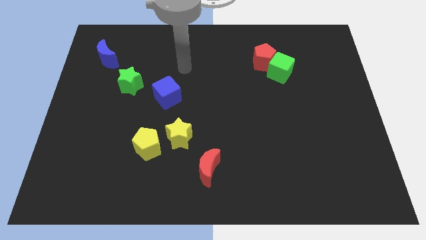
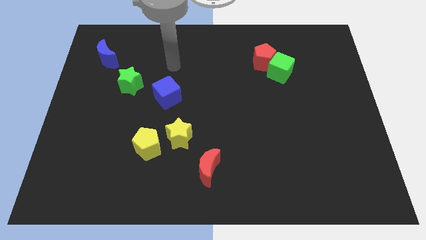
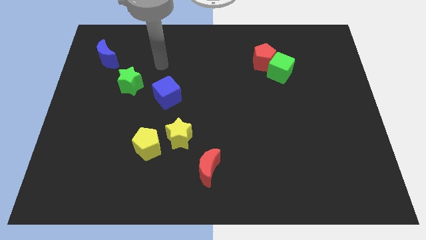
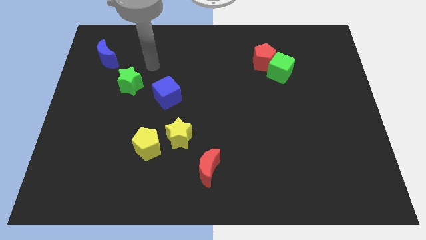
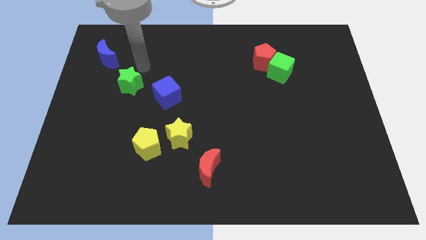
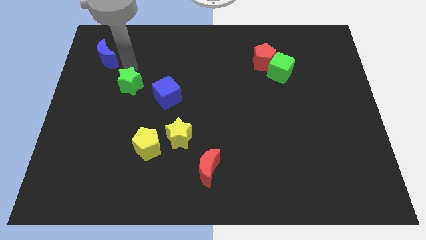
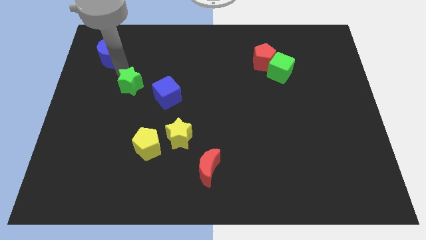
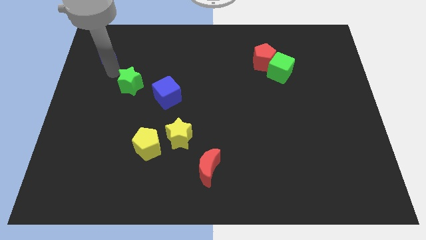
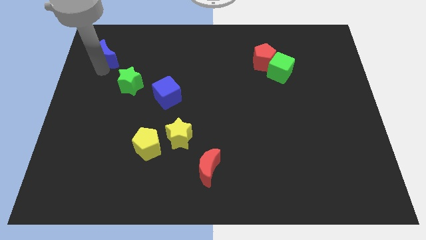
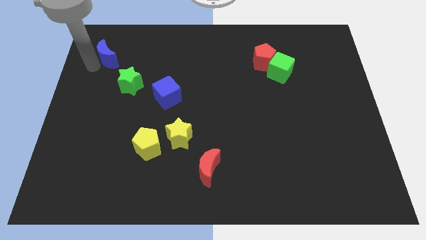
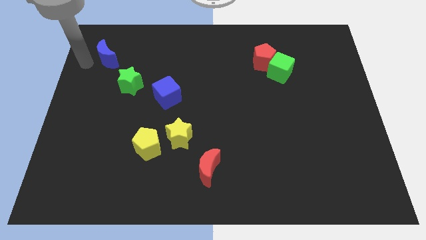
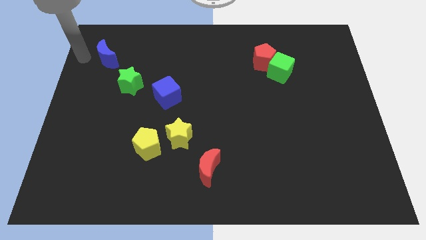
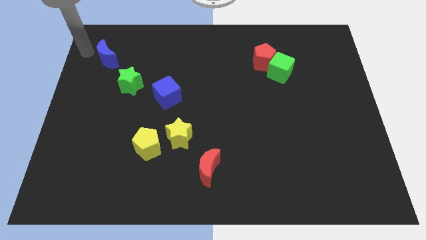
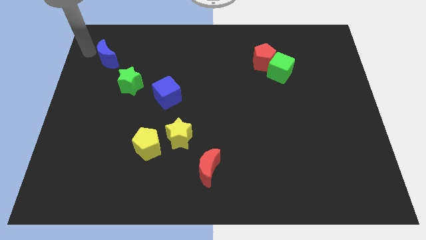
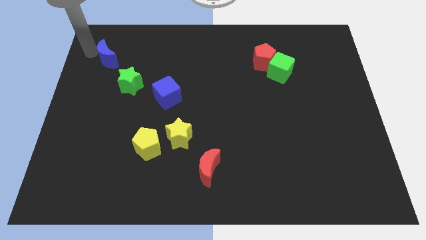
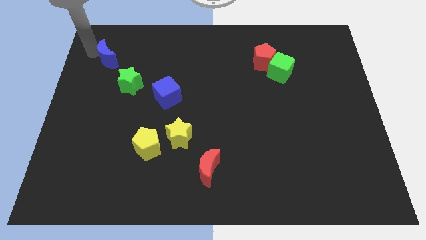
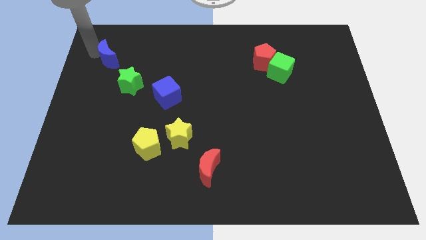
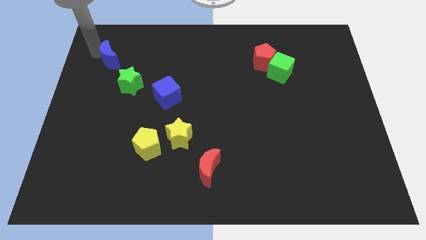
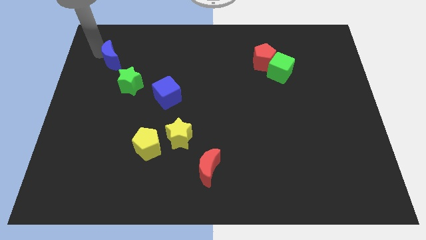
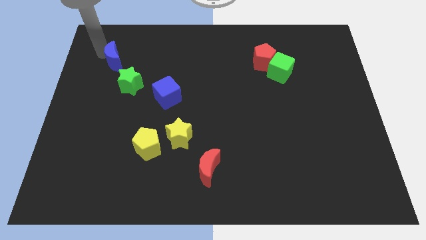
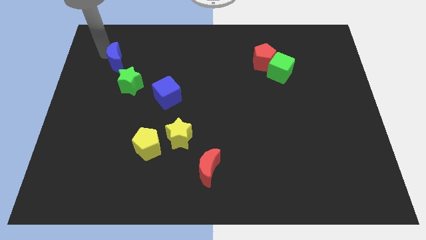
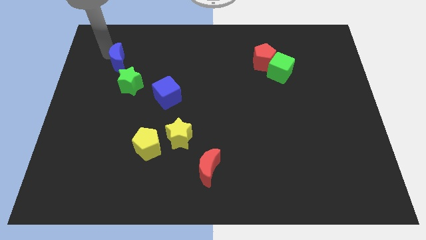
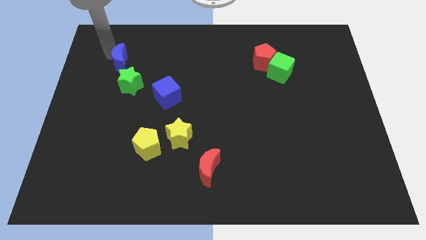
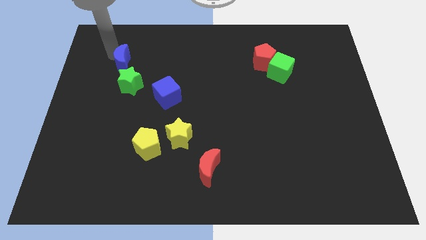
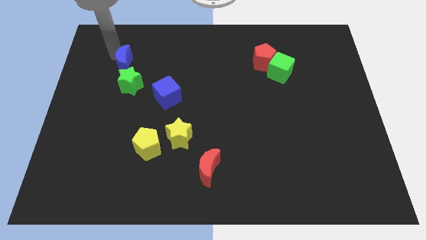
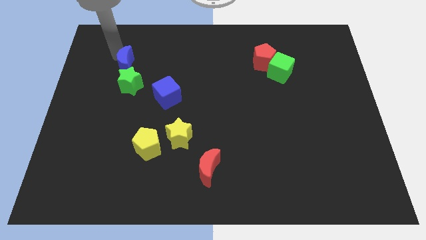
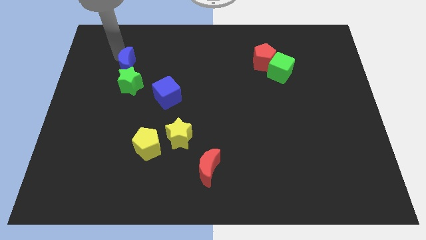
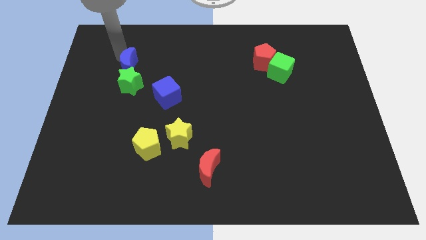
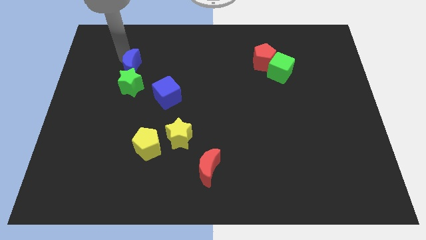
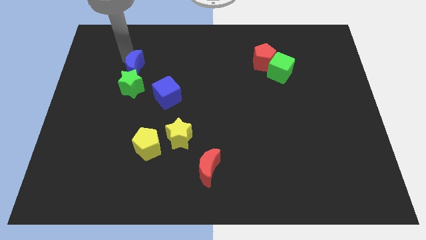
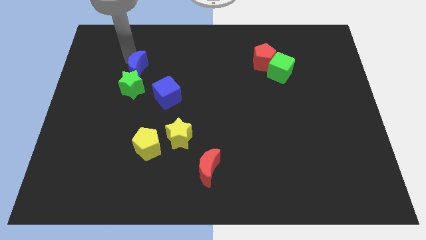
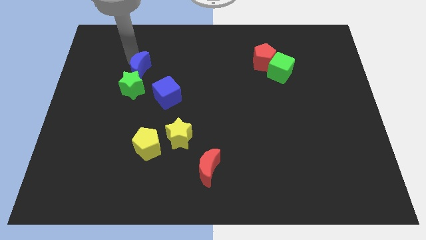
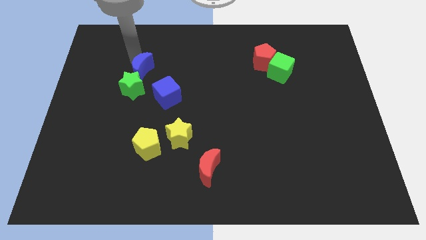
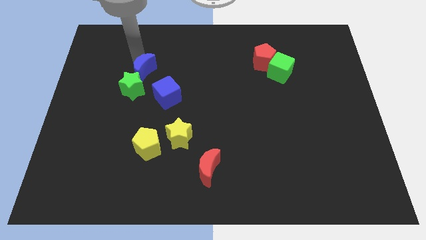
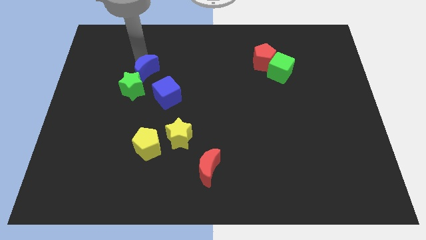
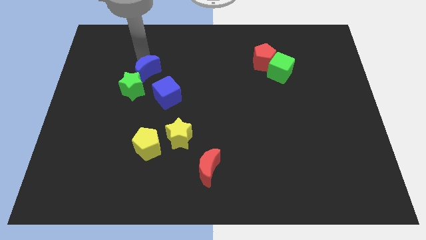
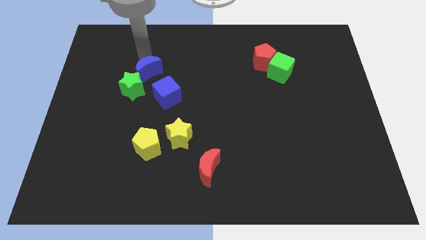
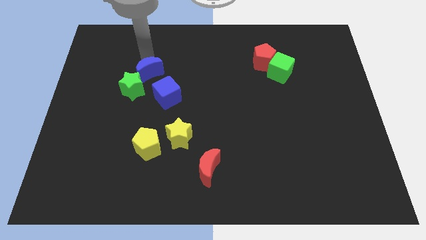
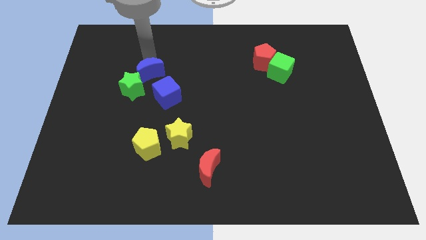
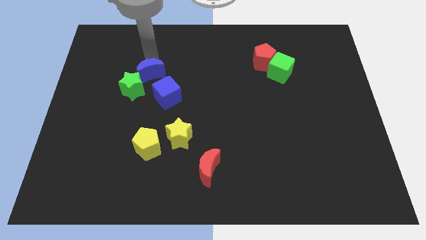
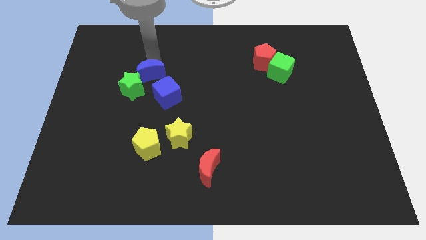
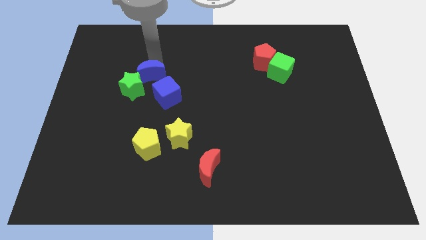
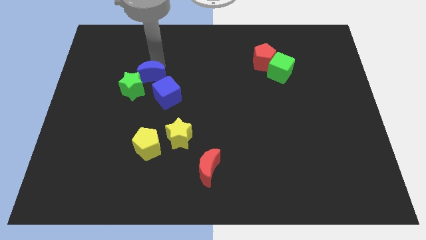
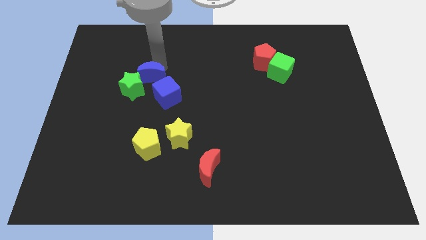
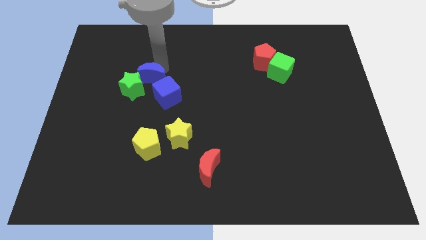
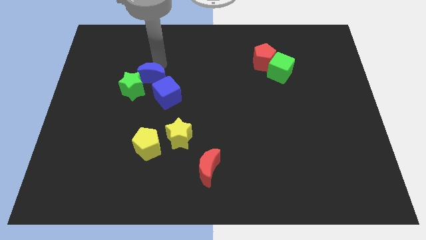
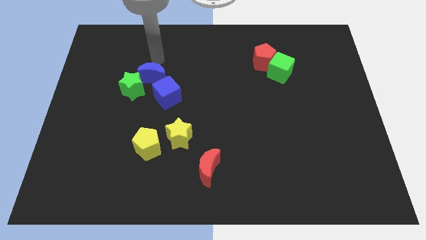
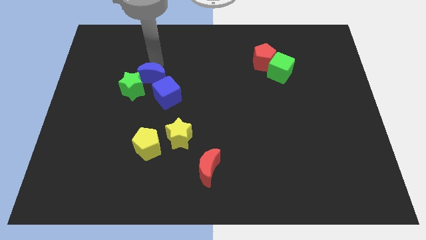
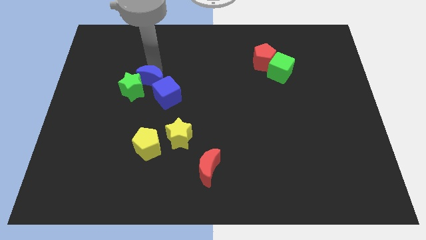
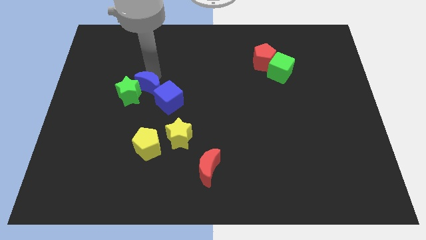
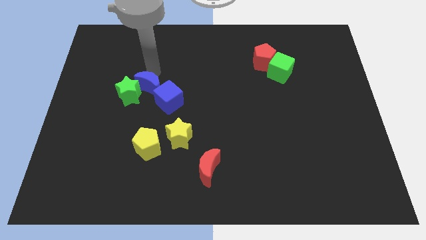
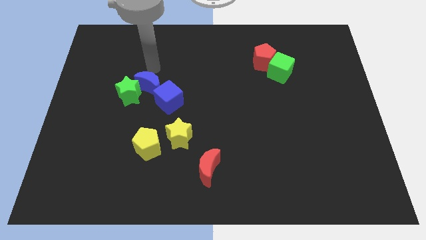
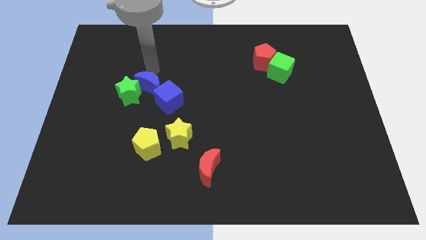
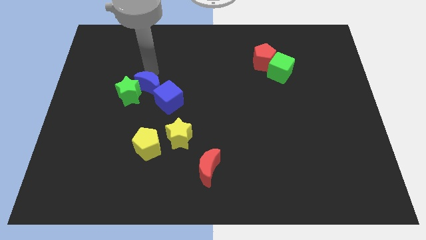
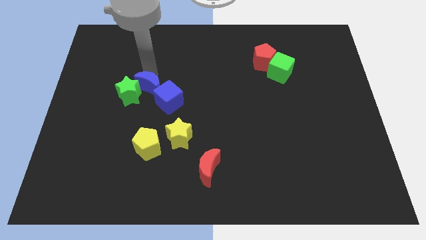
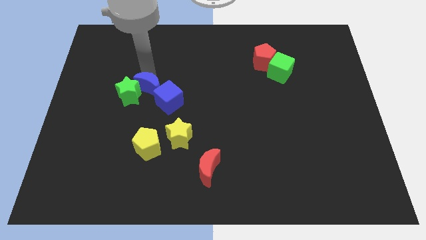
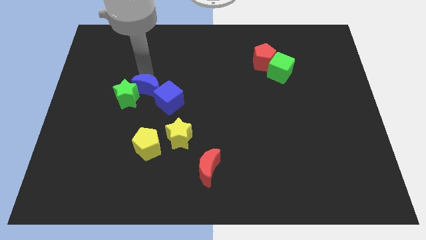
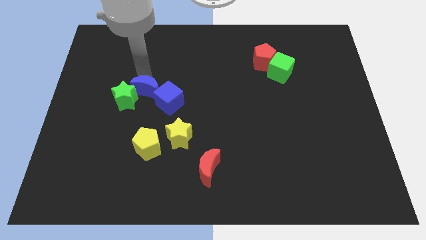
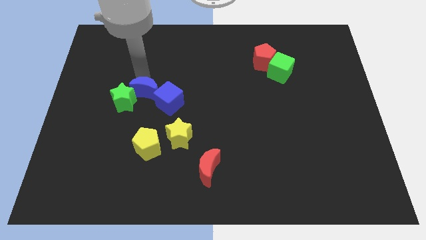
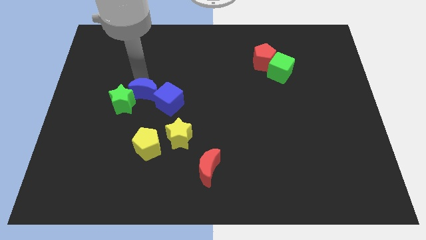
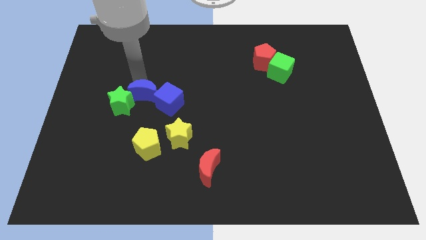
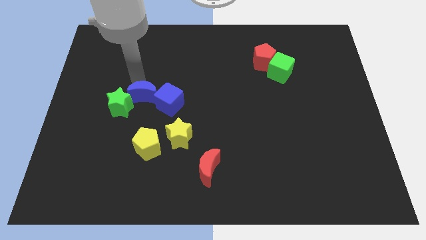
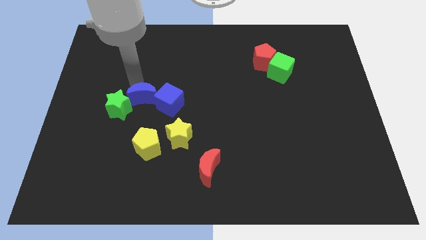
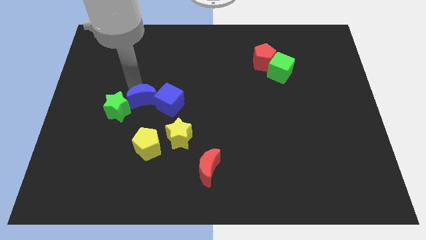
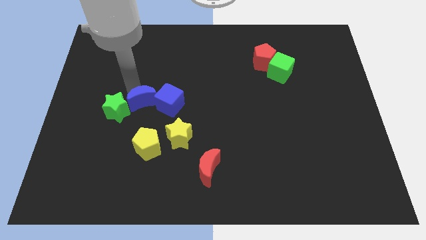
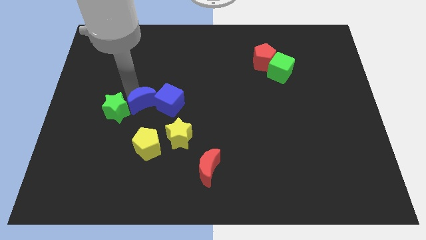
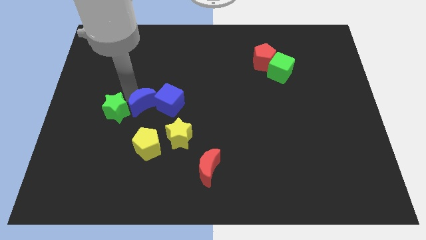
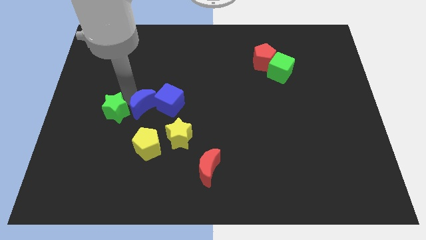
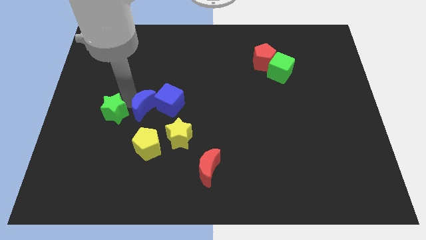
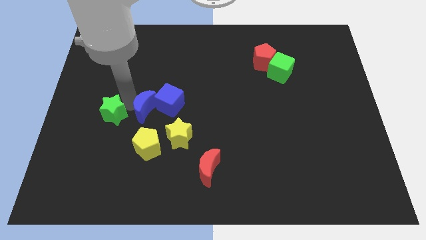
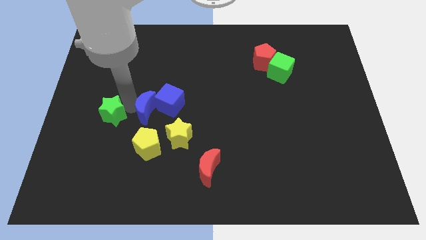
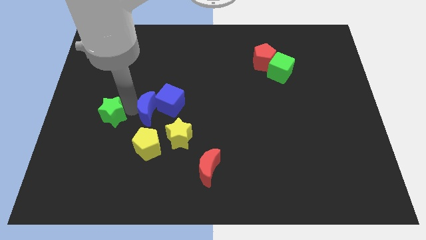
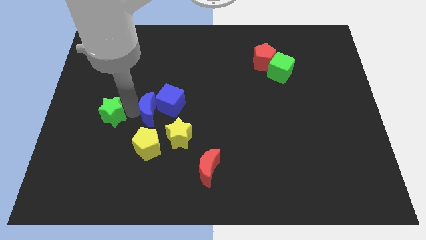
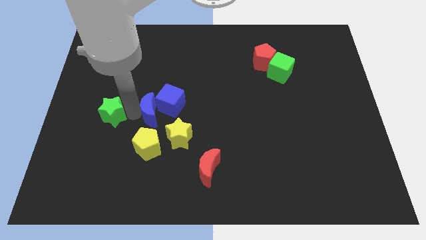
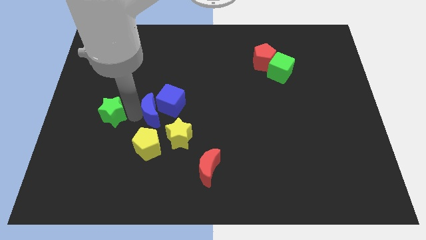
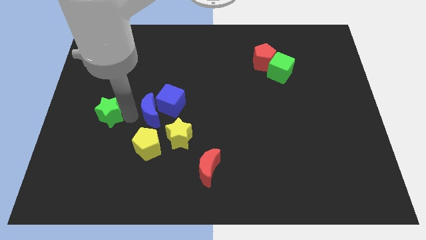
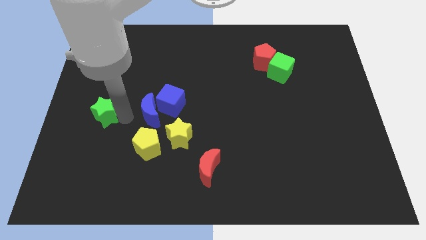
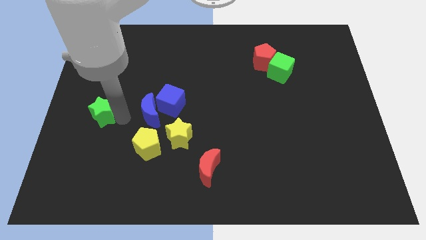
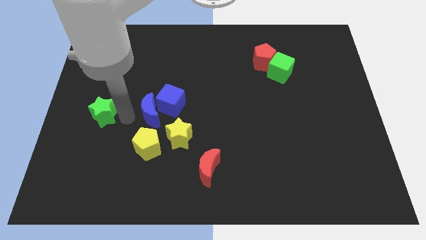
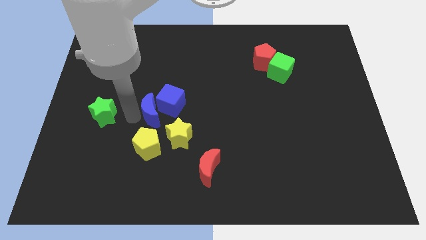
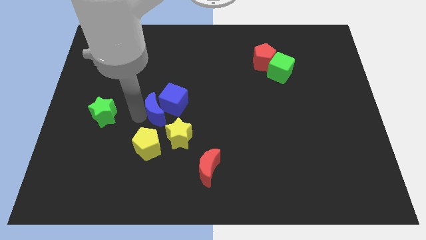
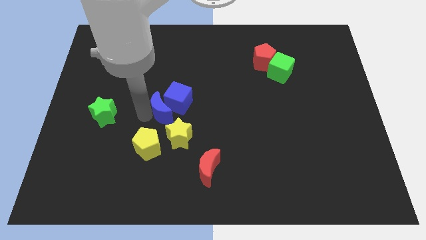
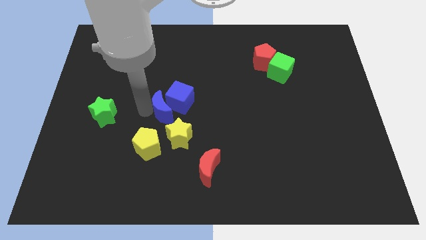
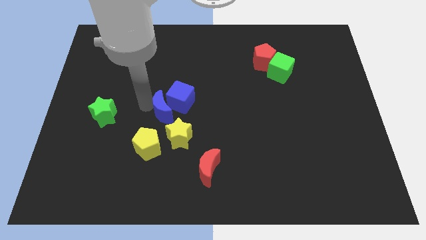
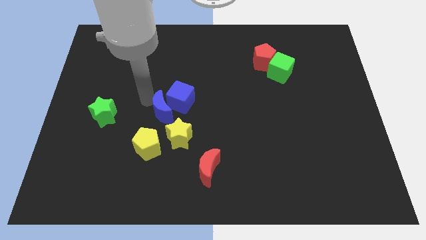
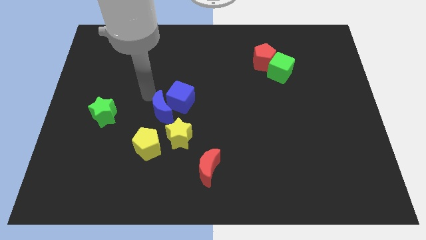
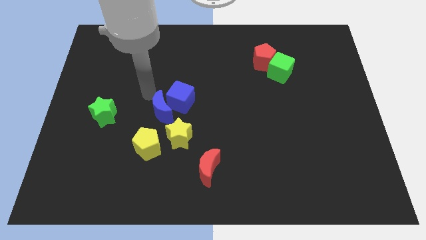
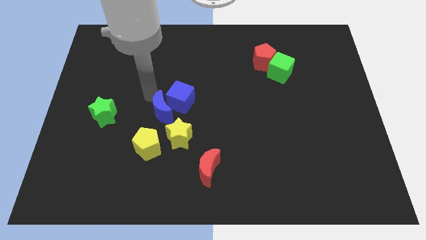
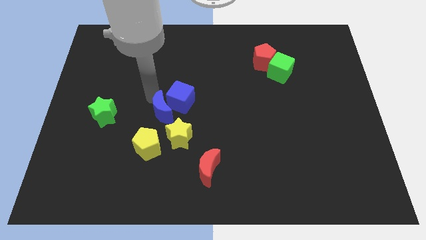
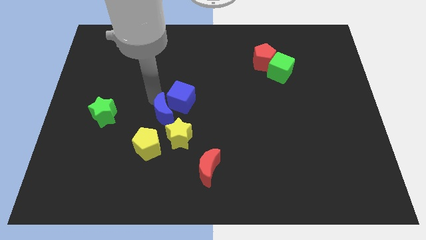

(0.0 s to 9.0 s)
move the blue moon diagonally up and to the right of the yellow pentagon
